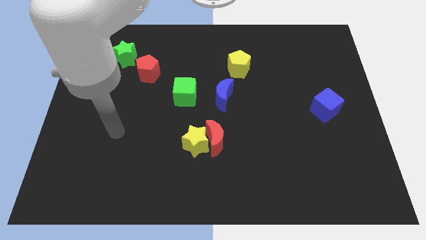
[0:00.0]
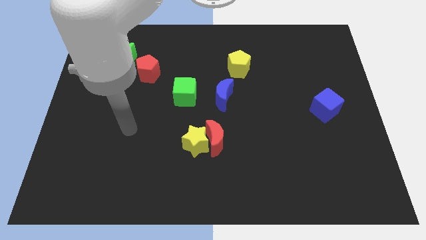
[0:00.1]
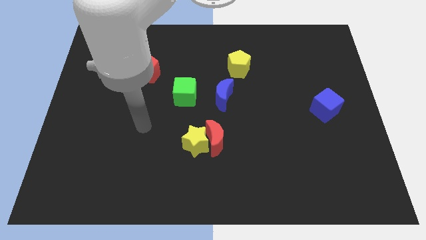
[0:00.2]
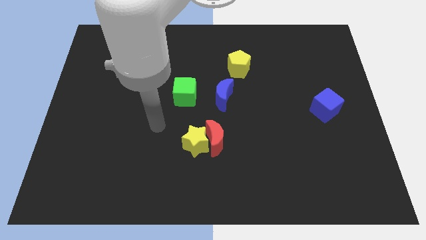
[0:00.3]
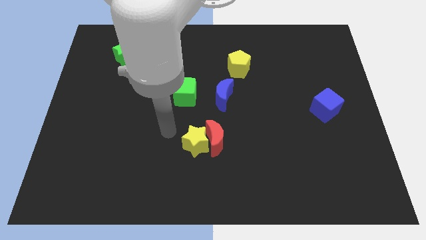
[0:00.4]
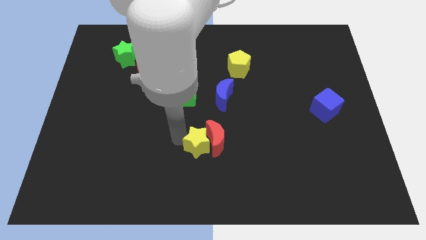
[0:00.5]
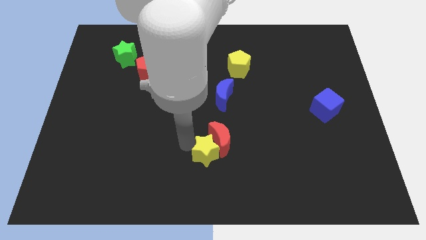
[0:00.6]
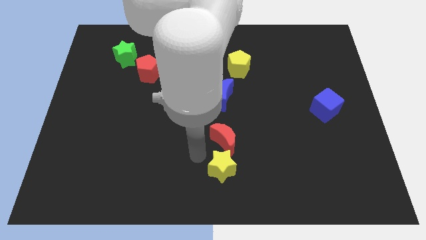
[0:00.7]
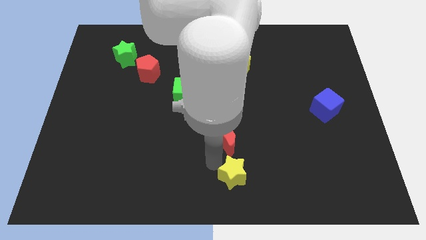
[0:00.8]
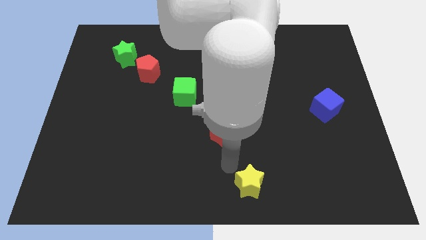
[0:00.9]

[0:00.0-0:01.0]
move the red moon away from the yellow star

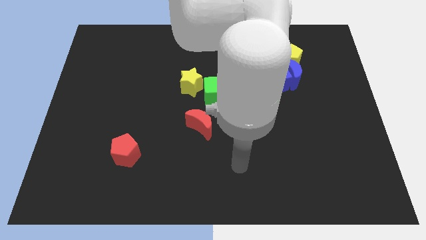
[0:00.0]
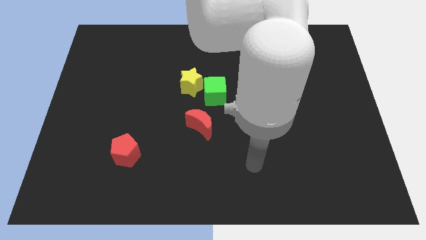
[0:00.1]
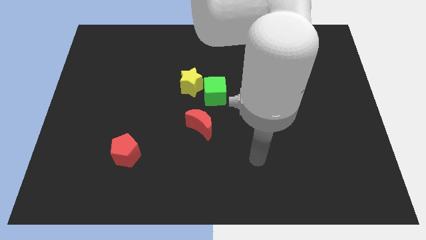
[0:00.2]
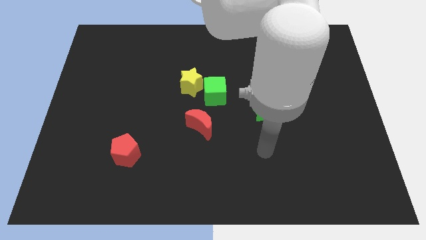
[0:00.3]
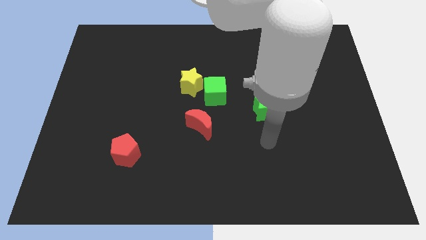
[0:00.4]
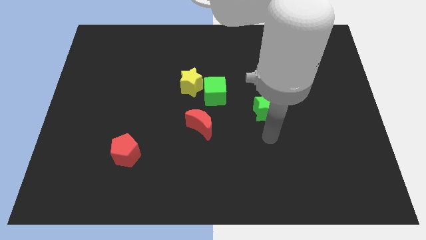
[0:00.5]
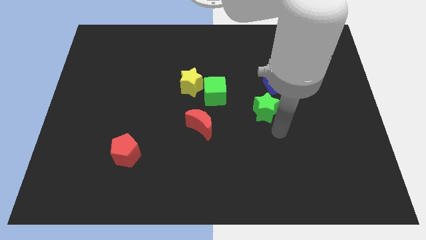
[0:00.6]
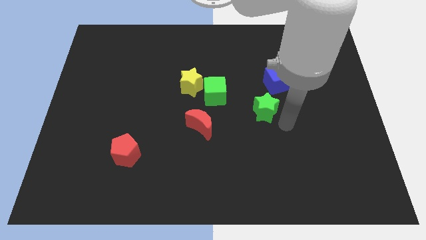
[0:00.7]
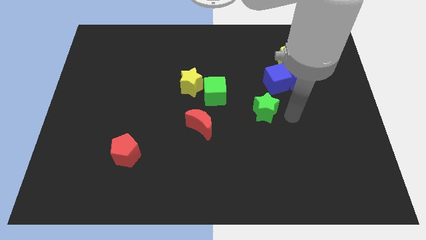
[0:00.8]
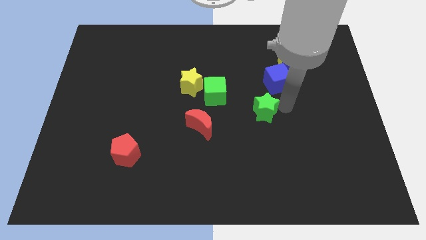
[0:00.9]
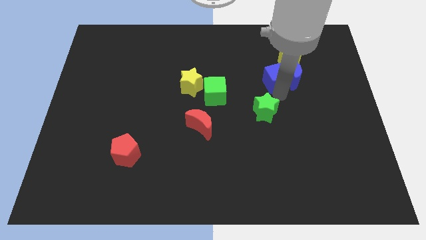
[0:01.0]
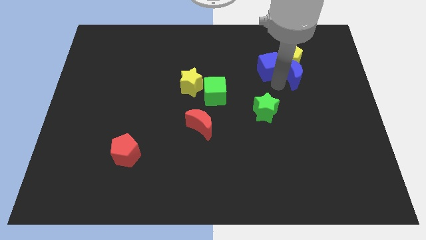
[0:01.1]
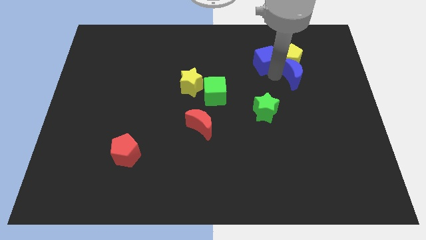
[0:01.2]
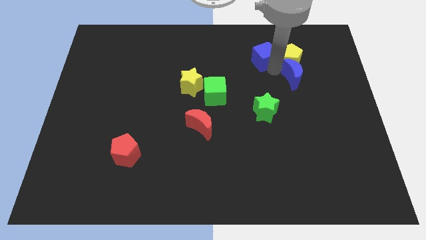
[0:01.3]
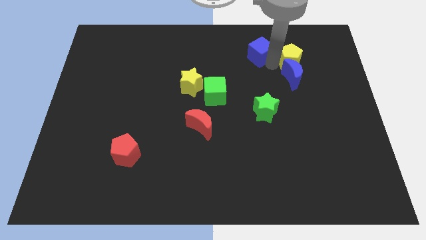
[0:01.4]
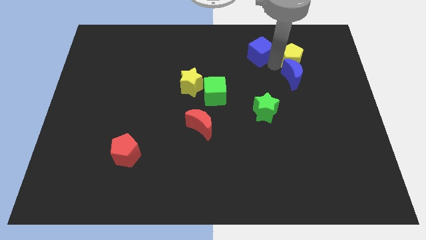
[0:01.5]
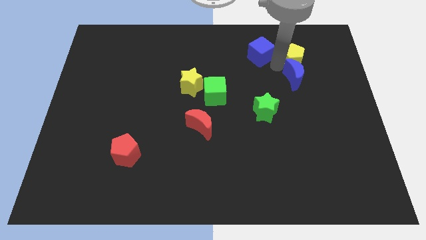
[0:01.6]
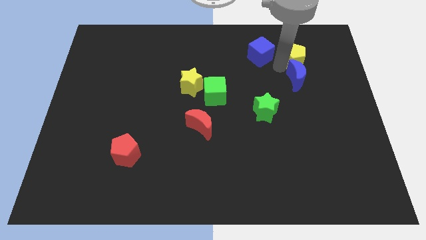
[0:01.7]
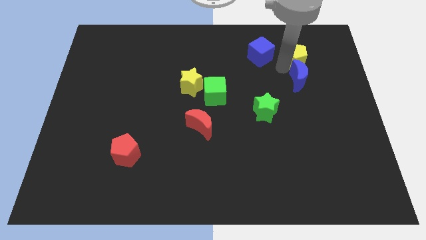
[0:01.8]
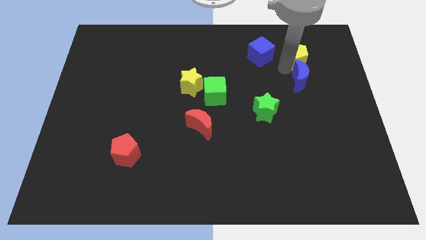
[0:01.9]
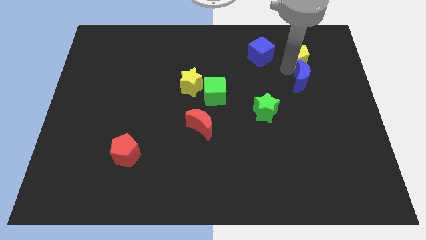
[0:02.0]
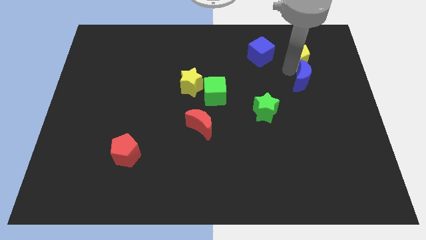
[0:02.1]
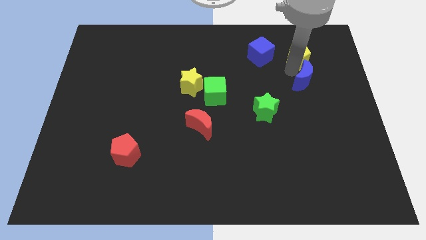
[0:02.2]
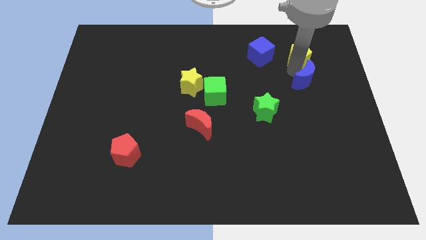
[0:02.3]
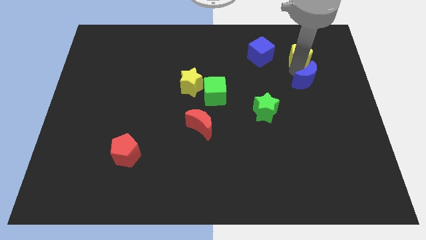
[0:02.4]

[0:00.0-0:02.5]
separate the blue moon from the blue cube and yellow pentagon

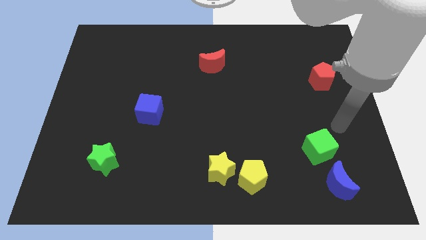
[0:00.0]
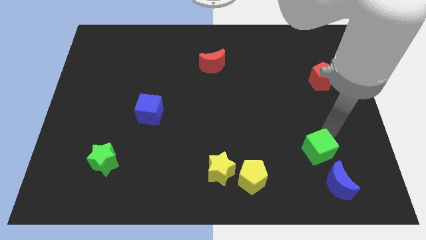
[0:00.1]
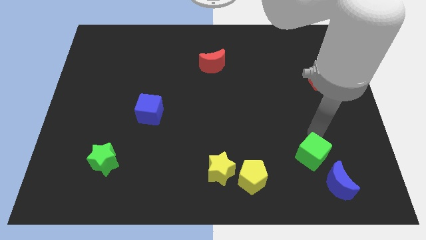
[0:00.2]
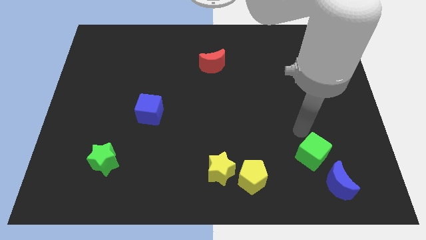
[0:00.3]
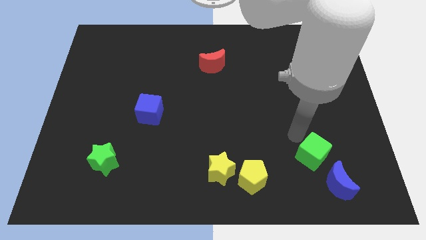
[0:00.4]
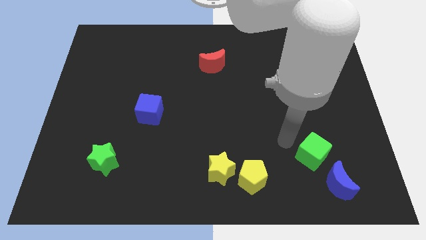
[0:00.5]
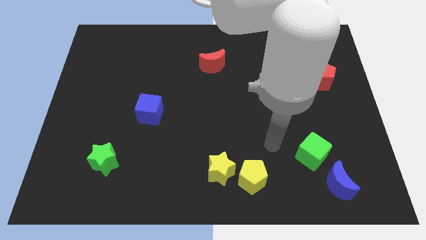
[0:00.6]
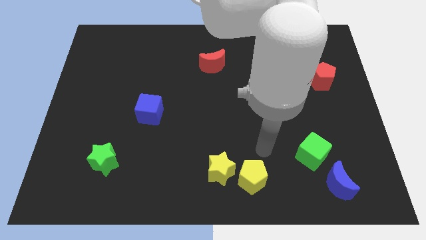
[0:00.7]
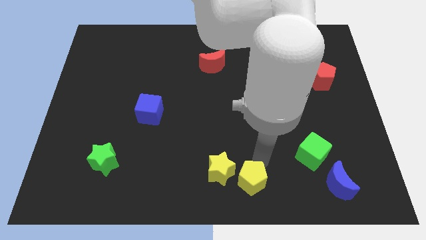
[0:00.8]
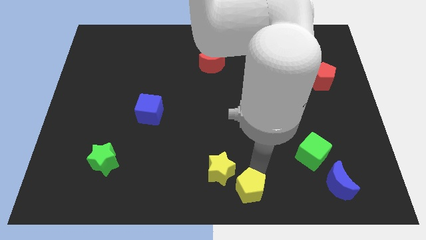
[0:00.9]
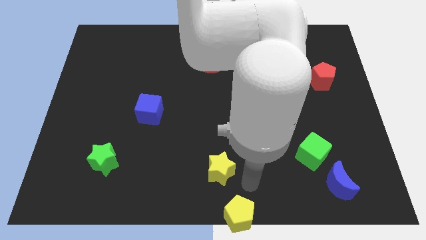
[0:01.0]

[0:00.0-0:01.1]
move the yellow star away from the yellow pentagon

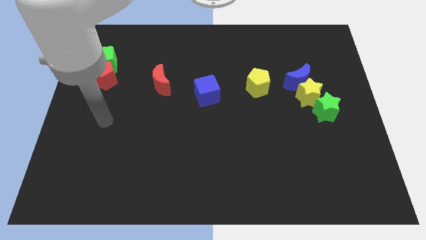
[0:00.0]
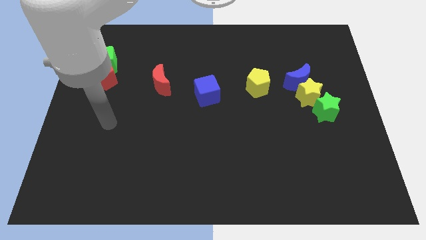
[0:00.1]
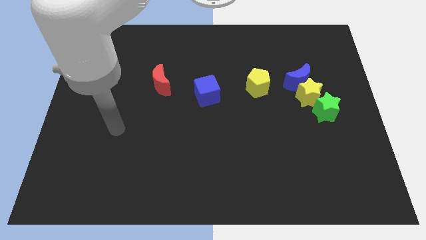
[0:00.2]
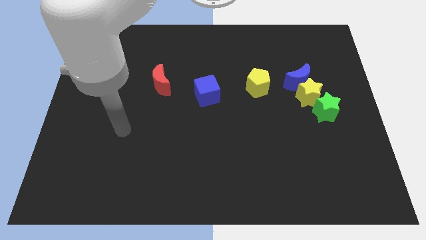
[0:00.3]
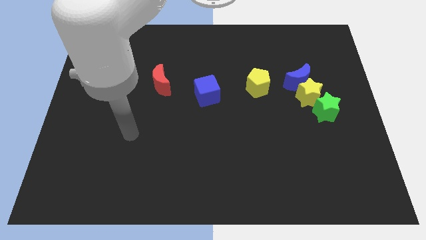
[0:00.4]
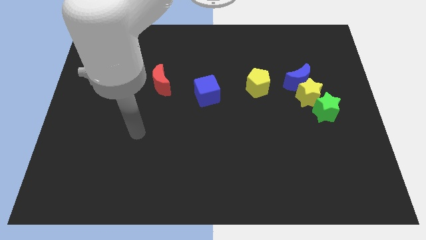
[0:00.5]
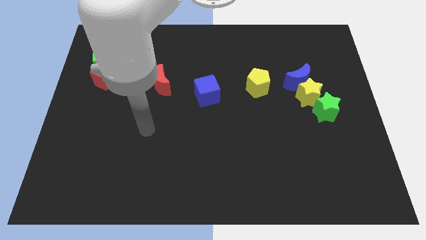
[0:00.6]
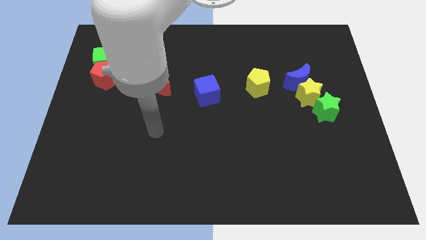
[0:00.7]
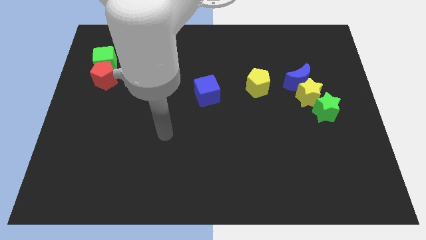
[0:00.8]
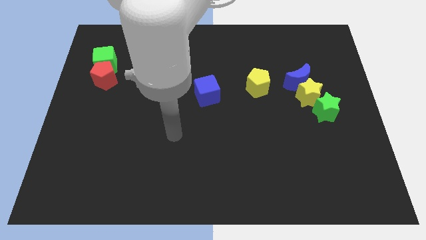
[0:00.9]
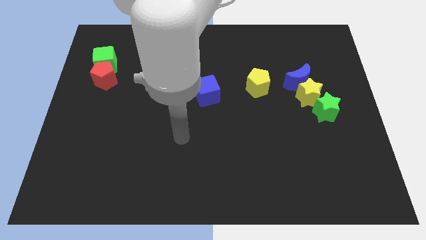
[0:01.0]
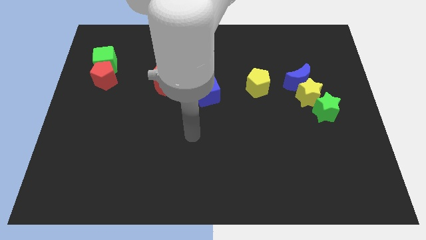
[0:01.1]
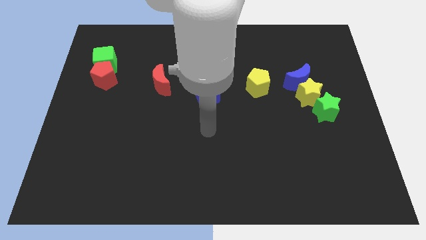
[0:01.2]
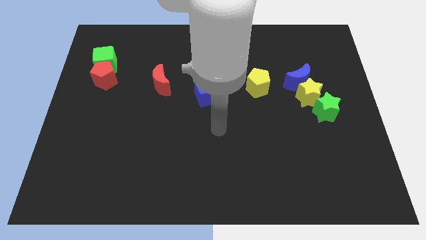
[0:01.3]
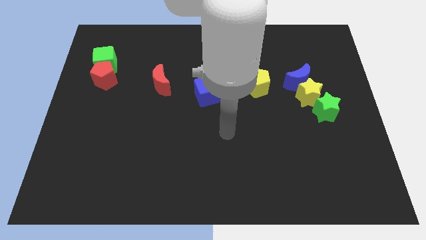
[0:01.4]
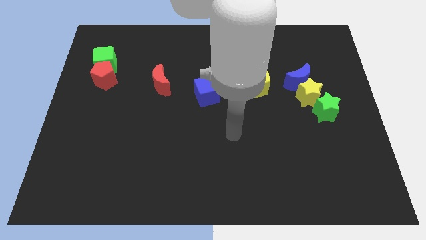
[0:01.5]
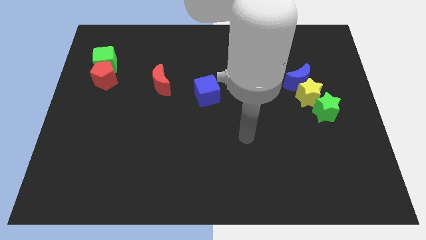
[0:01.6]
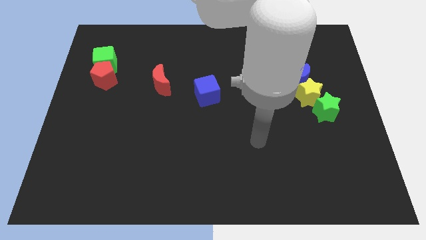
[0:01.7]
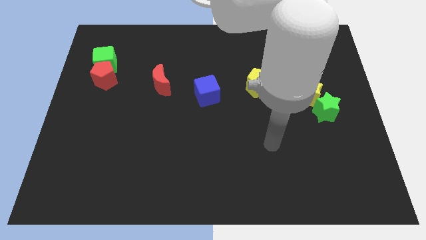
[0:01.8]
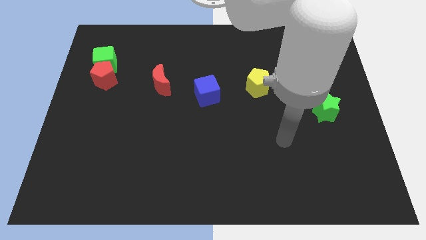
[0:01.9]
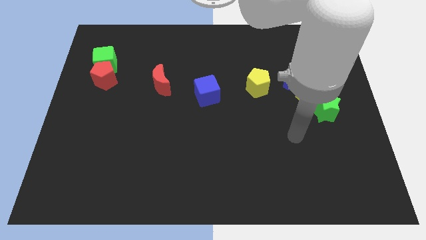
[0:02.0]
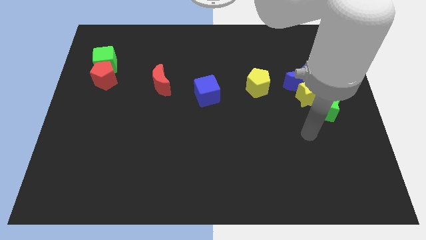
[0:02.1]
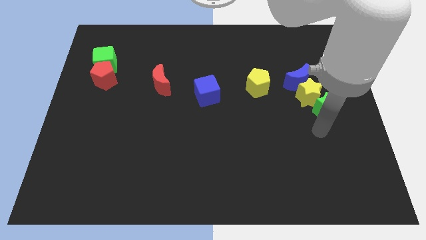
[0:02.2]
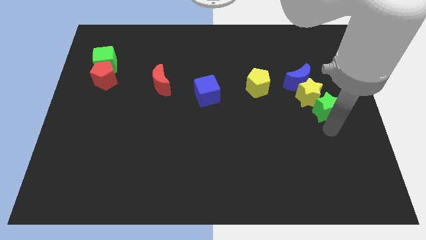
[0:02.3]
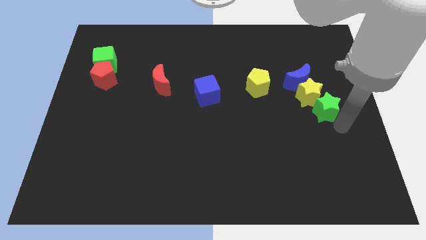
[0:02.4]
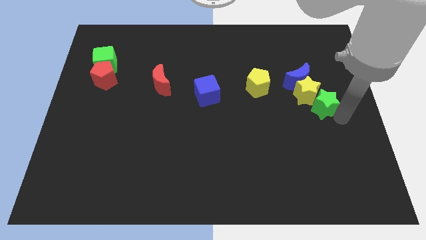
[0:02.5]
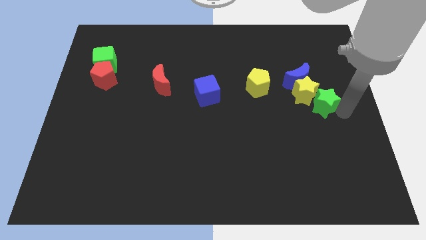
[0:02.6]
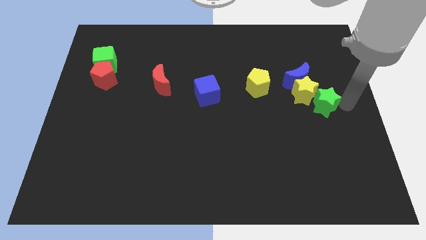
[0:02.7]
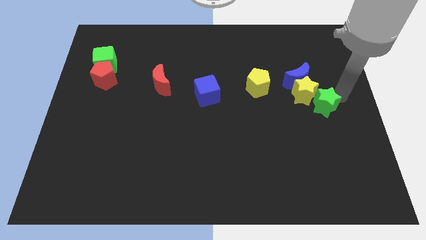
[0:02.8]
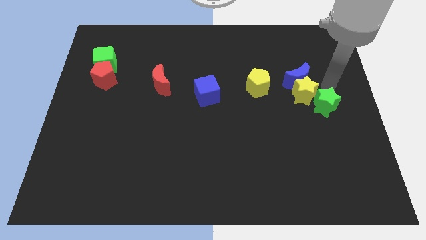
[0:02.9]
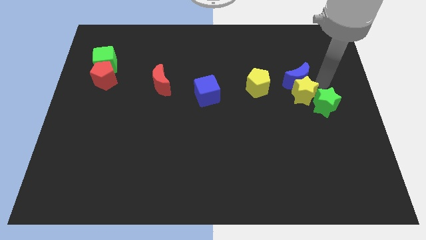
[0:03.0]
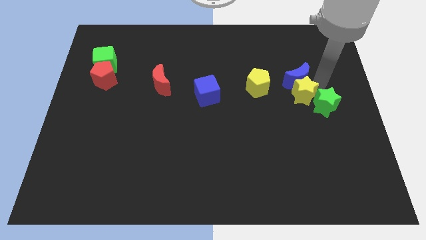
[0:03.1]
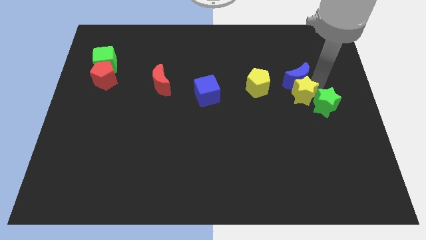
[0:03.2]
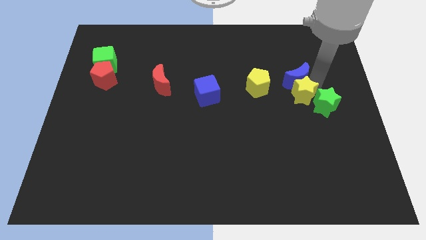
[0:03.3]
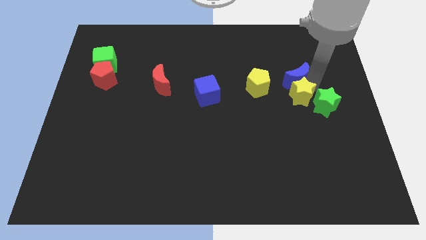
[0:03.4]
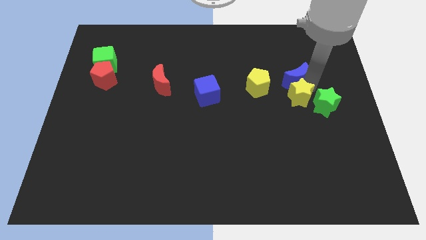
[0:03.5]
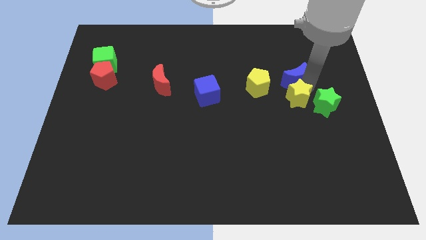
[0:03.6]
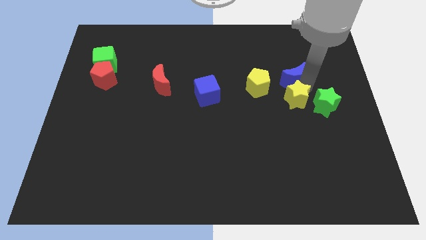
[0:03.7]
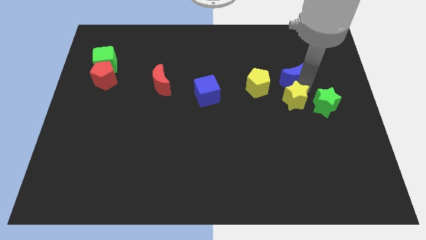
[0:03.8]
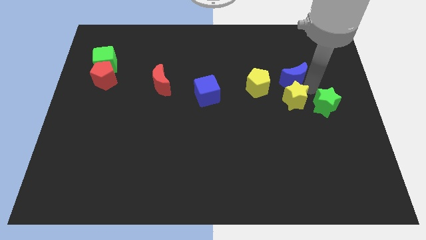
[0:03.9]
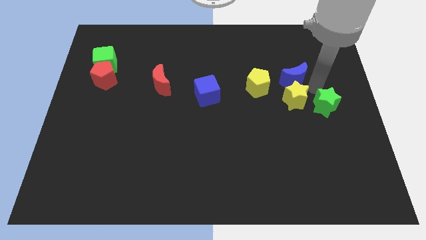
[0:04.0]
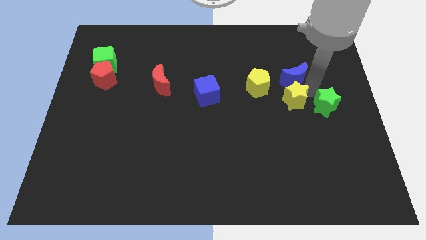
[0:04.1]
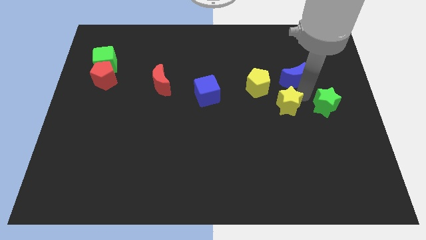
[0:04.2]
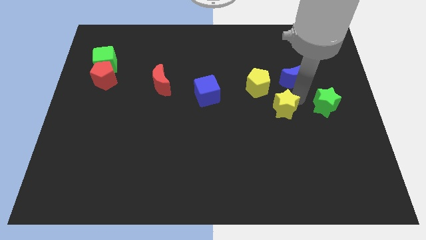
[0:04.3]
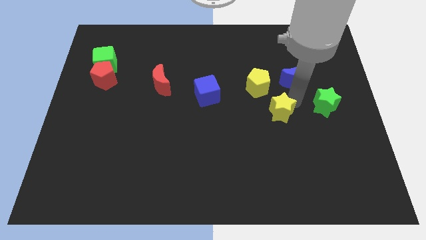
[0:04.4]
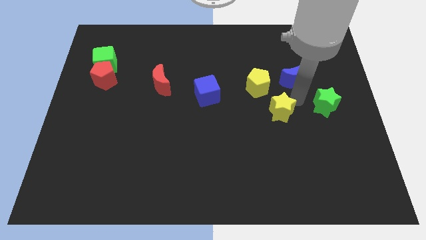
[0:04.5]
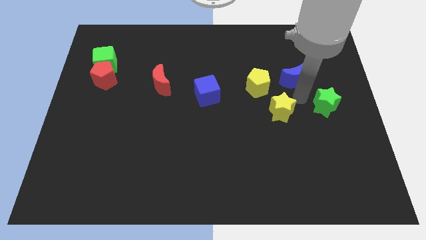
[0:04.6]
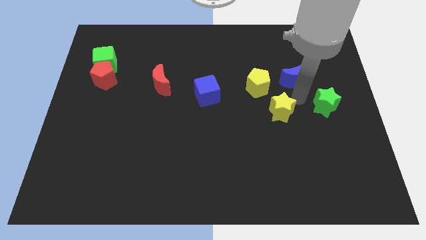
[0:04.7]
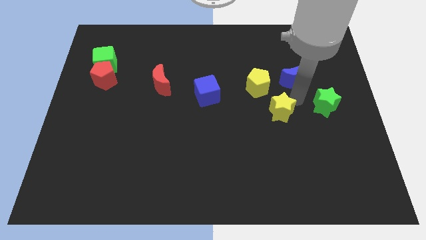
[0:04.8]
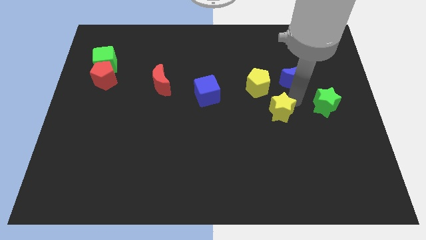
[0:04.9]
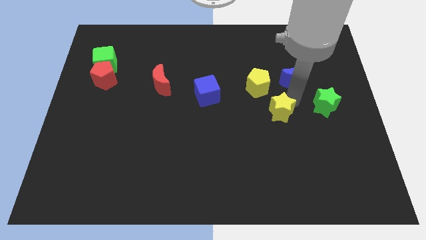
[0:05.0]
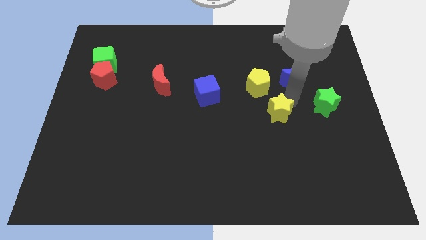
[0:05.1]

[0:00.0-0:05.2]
separate the yellow star from the green star and blue moon
